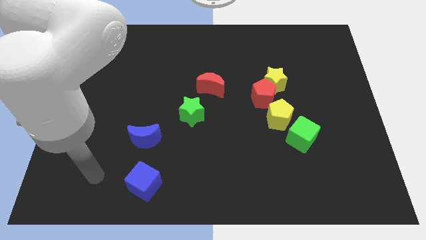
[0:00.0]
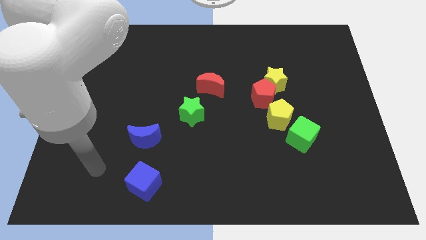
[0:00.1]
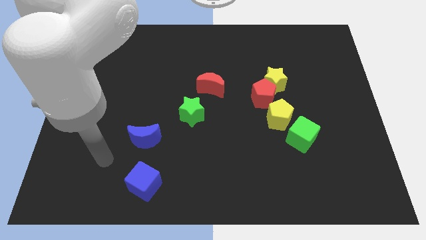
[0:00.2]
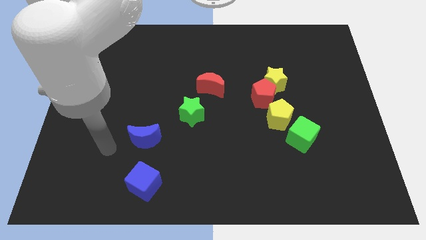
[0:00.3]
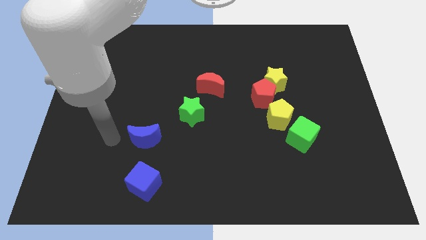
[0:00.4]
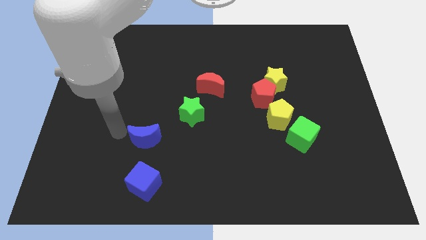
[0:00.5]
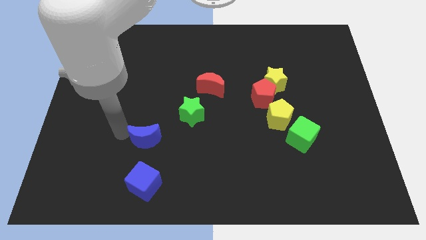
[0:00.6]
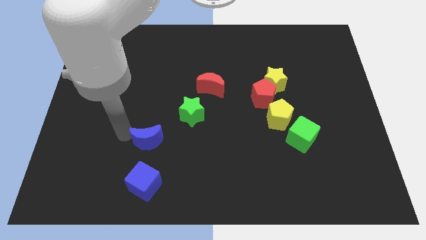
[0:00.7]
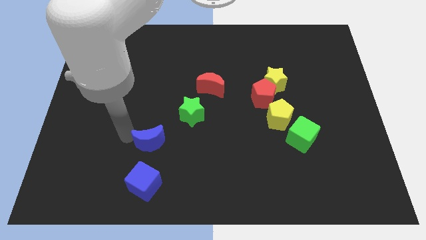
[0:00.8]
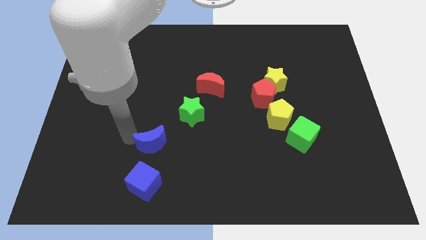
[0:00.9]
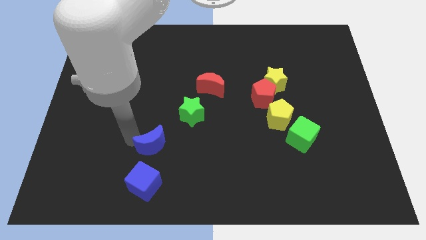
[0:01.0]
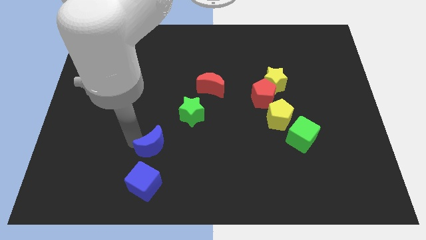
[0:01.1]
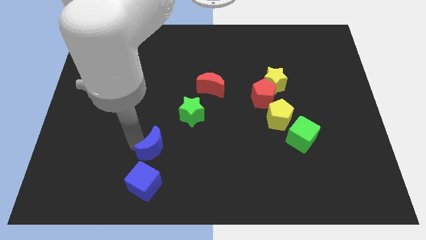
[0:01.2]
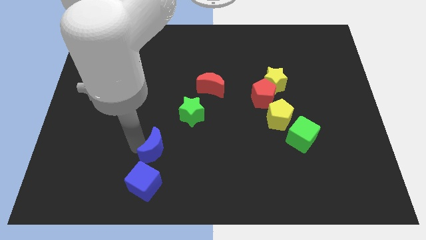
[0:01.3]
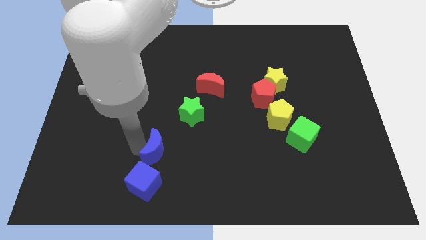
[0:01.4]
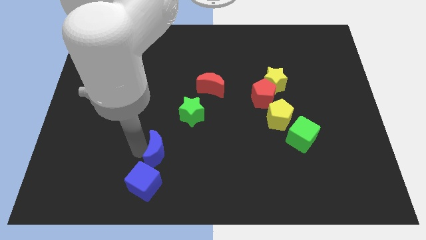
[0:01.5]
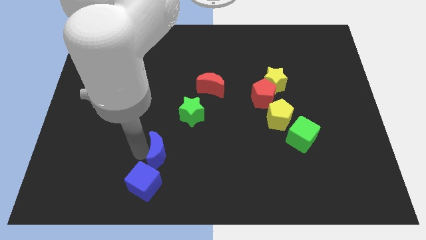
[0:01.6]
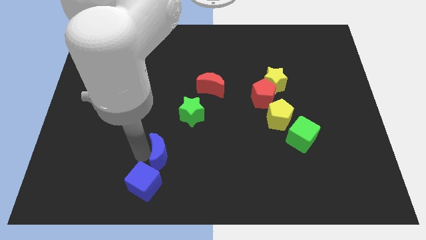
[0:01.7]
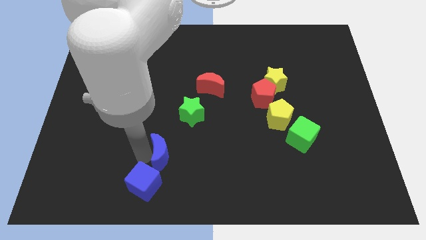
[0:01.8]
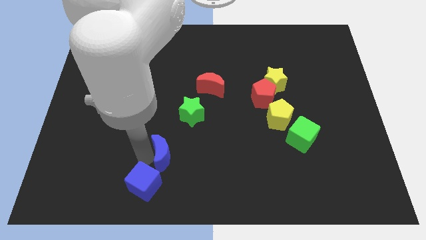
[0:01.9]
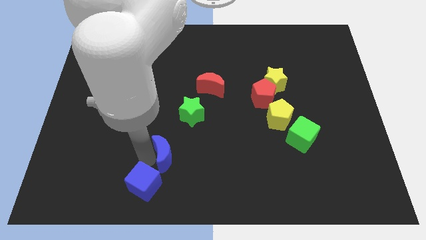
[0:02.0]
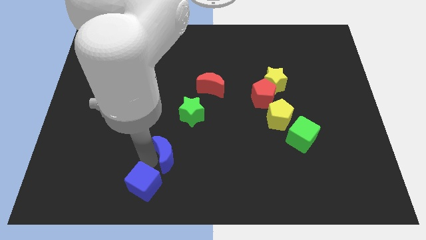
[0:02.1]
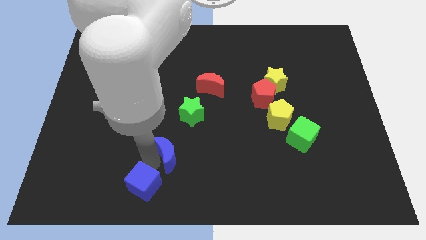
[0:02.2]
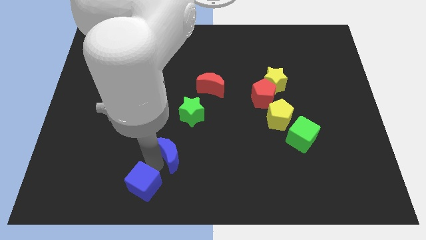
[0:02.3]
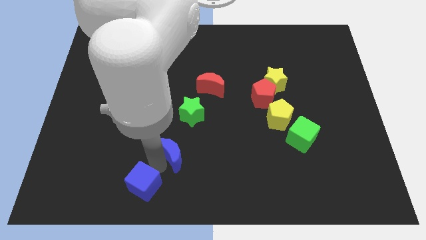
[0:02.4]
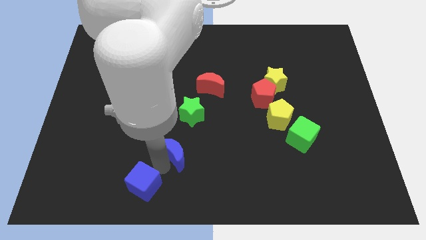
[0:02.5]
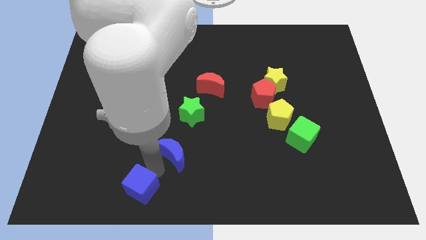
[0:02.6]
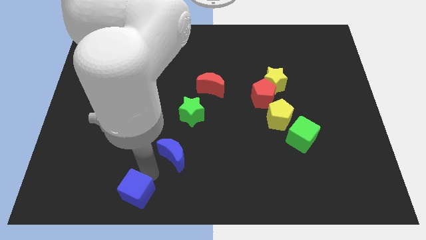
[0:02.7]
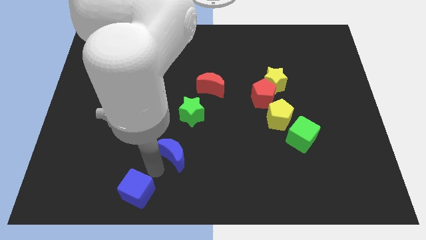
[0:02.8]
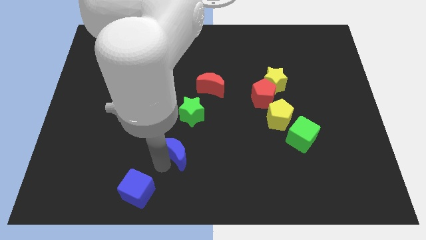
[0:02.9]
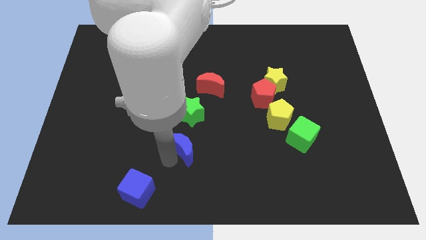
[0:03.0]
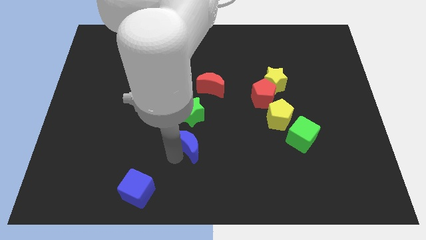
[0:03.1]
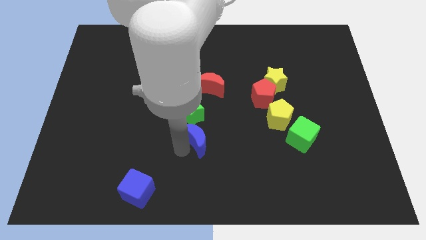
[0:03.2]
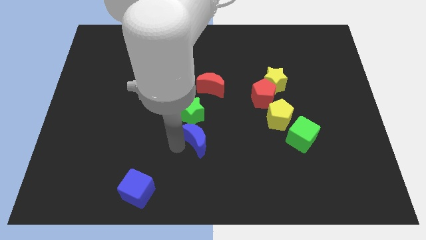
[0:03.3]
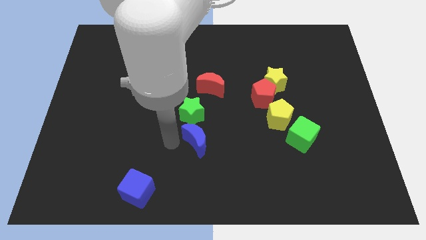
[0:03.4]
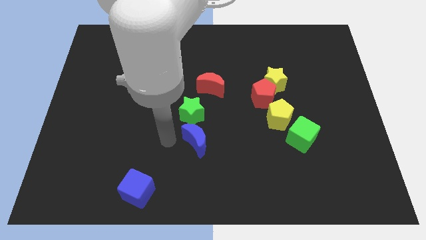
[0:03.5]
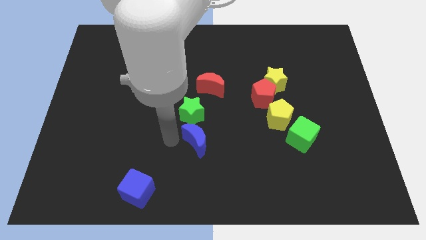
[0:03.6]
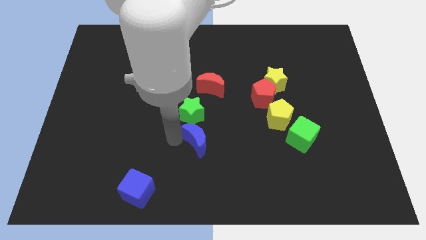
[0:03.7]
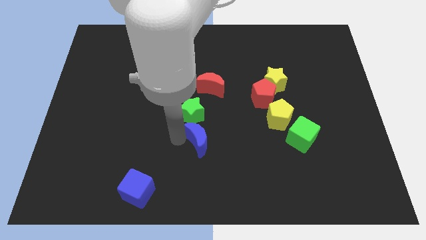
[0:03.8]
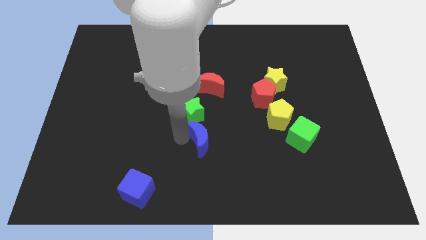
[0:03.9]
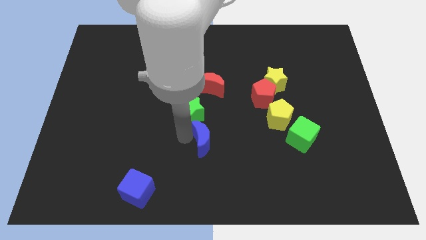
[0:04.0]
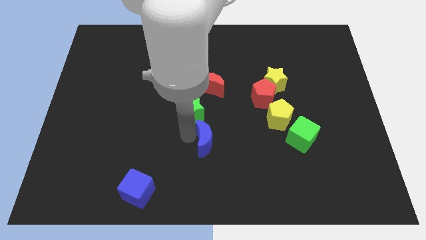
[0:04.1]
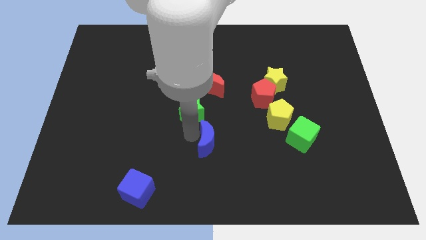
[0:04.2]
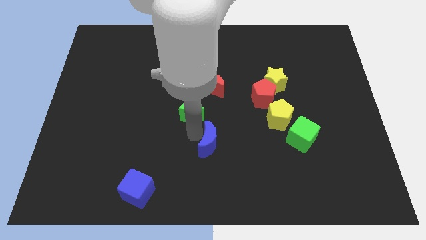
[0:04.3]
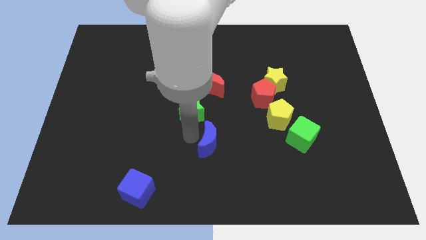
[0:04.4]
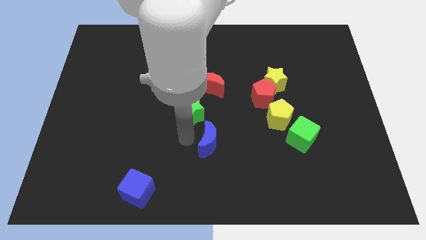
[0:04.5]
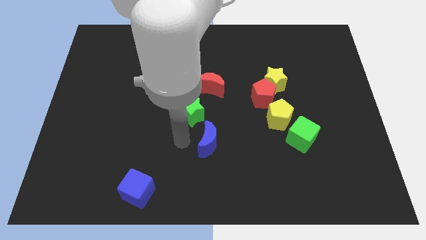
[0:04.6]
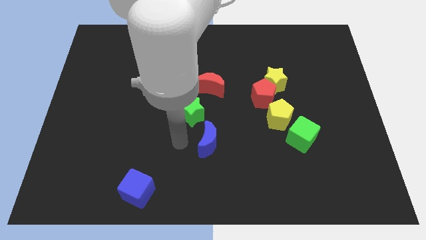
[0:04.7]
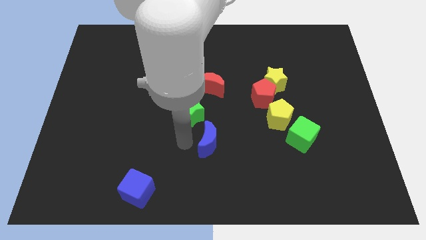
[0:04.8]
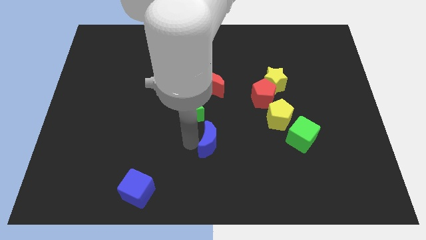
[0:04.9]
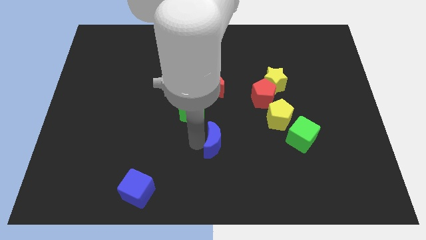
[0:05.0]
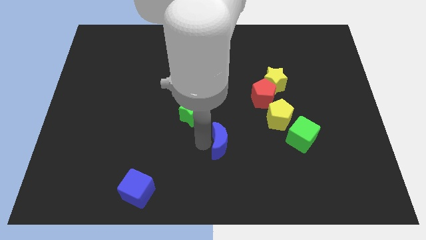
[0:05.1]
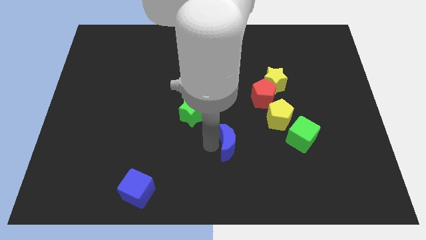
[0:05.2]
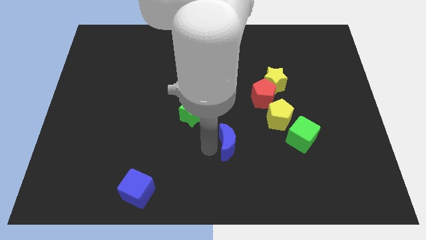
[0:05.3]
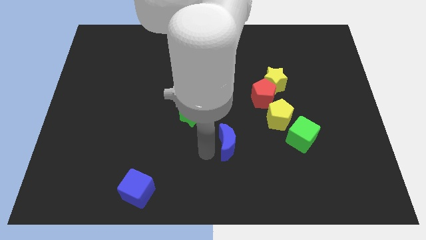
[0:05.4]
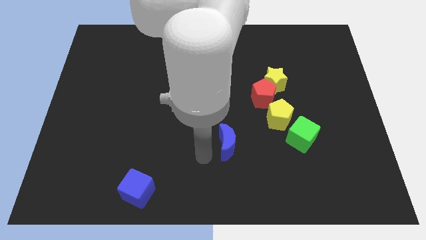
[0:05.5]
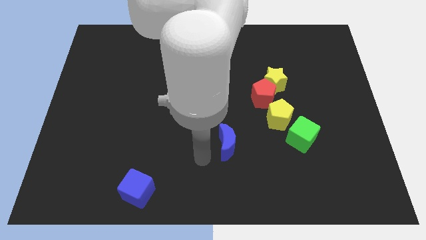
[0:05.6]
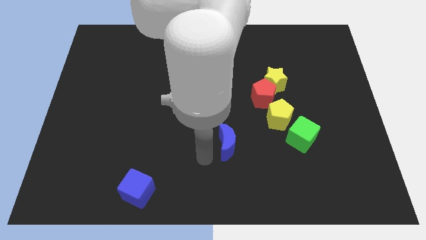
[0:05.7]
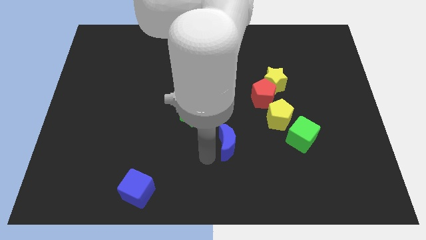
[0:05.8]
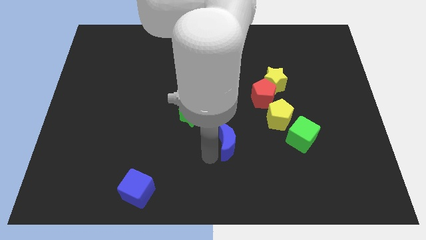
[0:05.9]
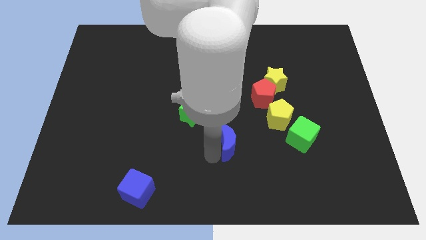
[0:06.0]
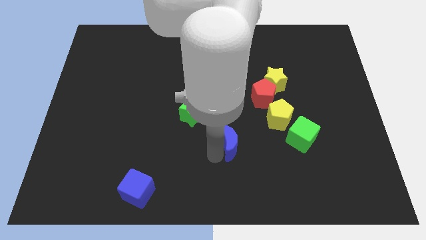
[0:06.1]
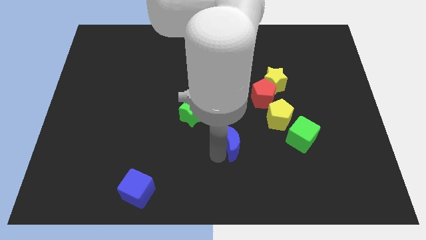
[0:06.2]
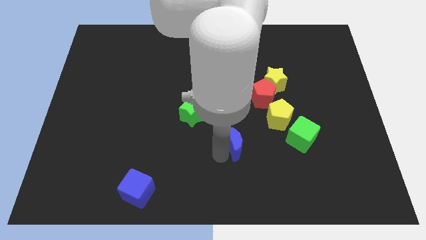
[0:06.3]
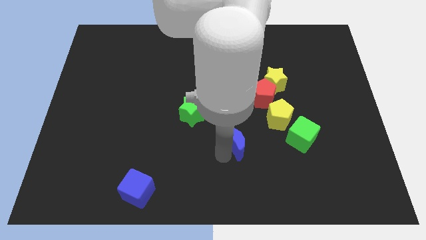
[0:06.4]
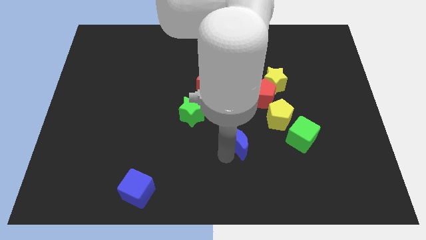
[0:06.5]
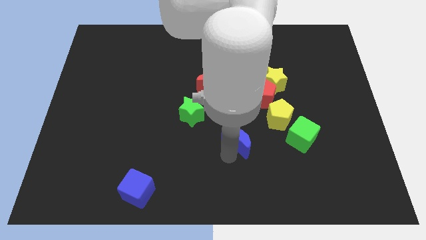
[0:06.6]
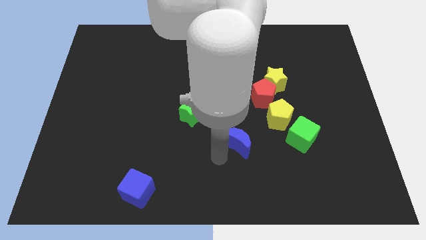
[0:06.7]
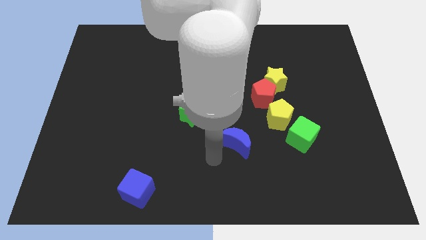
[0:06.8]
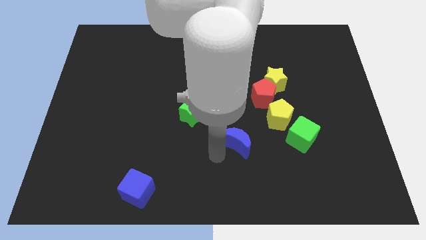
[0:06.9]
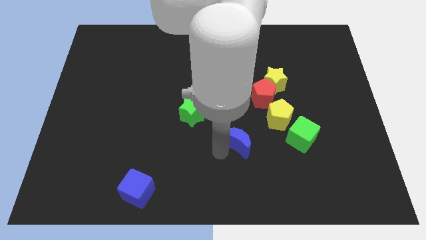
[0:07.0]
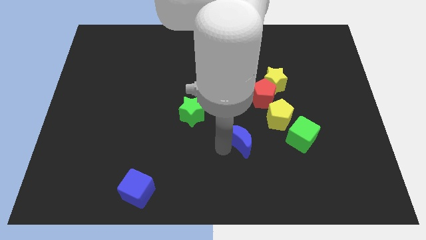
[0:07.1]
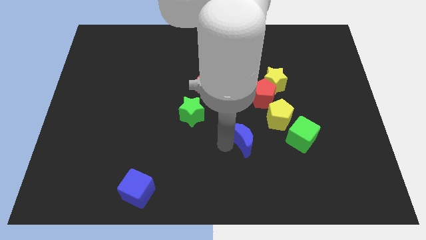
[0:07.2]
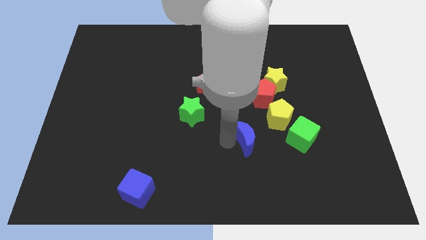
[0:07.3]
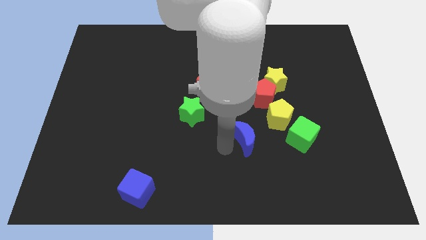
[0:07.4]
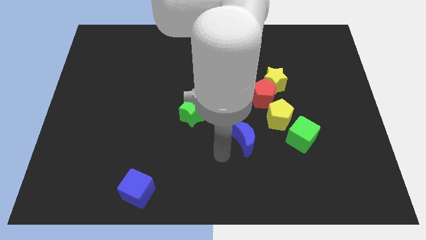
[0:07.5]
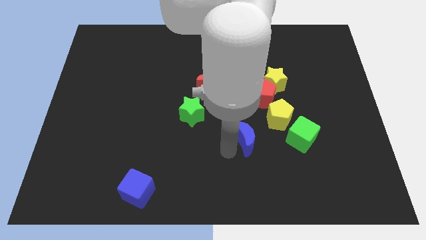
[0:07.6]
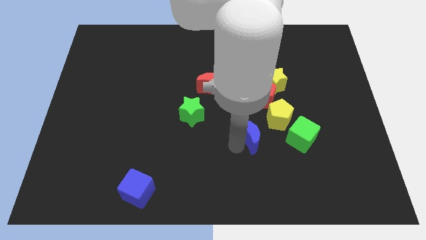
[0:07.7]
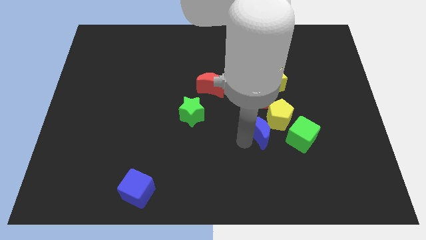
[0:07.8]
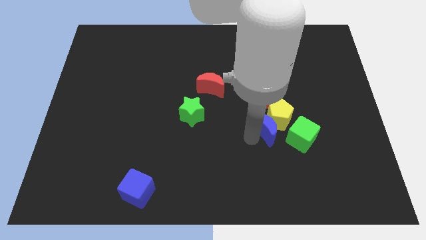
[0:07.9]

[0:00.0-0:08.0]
slide the blue moon to the yellow pentagon
